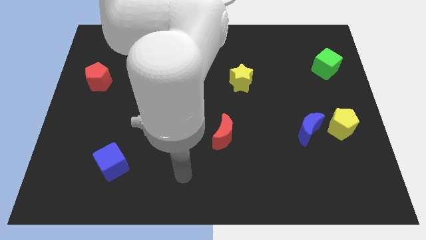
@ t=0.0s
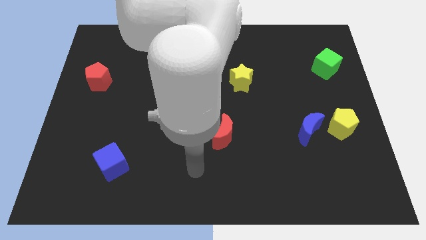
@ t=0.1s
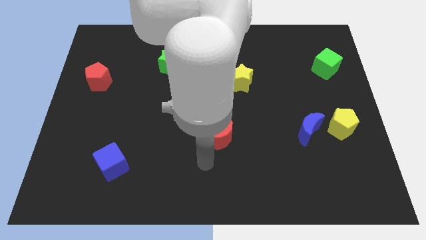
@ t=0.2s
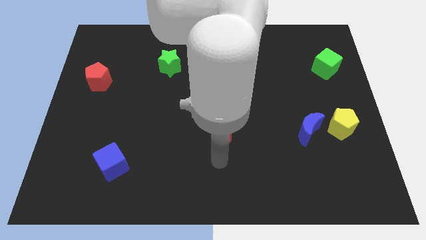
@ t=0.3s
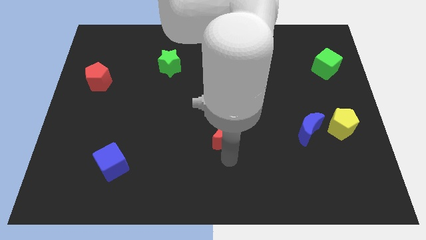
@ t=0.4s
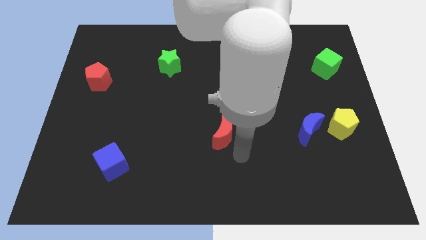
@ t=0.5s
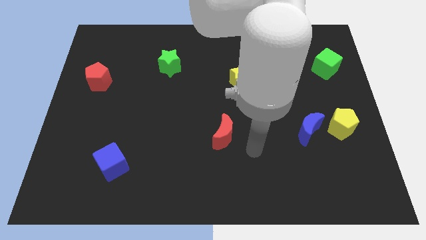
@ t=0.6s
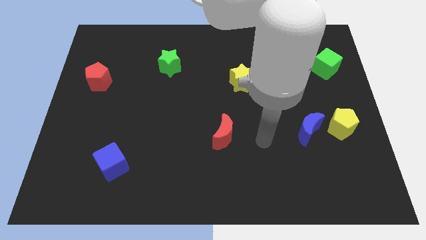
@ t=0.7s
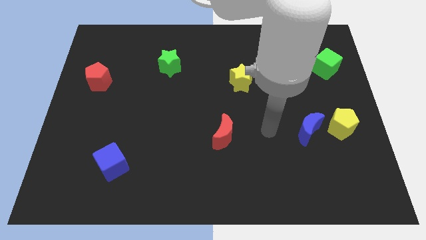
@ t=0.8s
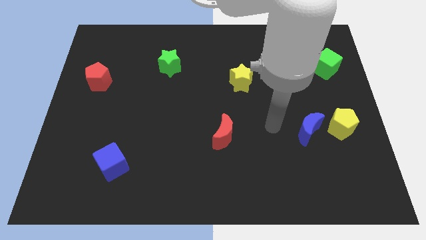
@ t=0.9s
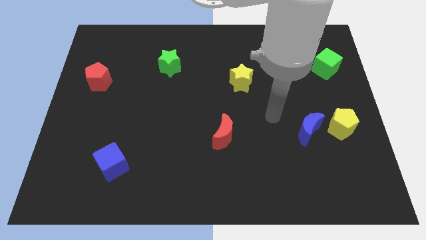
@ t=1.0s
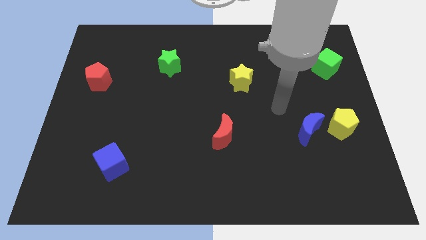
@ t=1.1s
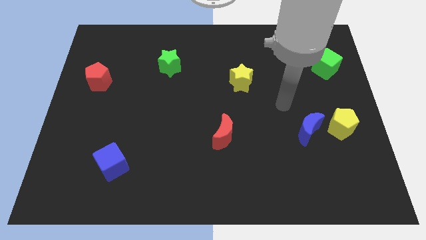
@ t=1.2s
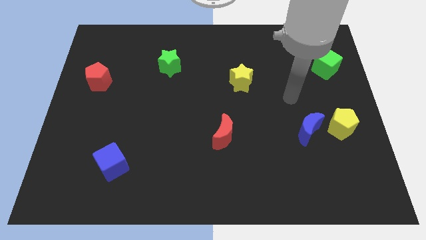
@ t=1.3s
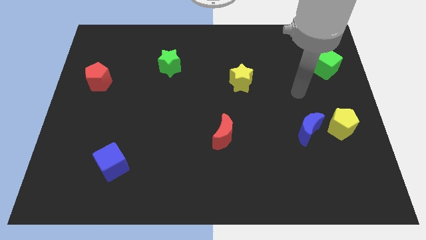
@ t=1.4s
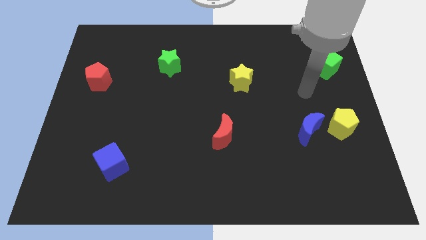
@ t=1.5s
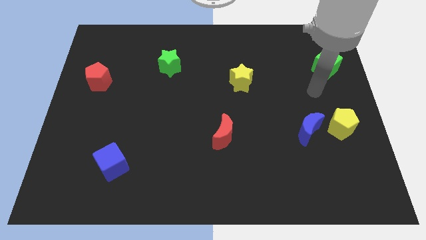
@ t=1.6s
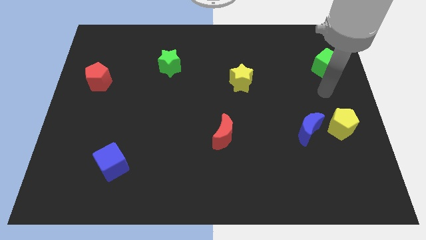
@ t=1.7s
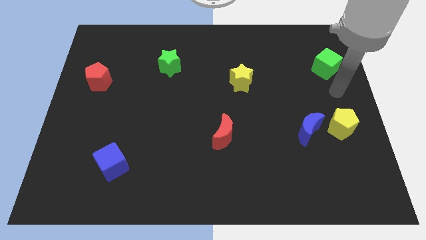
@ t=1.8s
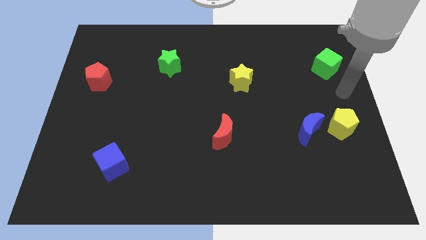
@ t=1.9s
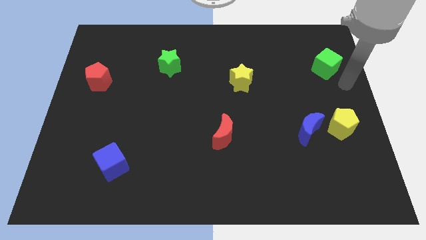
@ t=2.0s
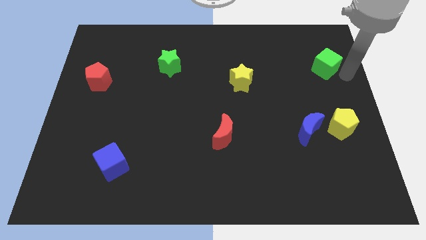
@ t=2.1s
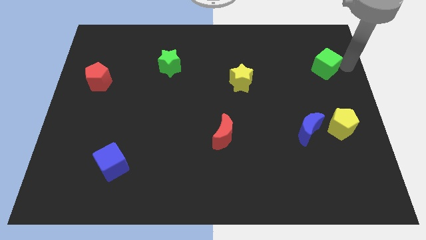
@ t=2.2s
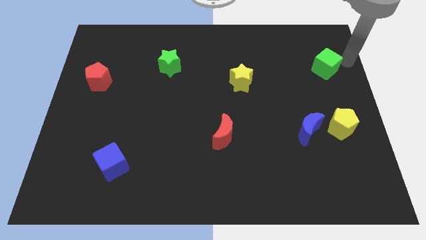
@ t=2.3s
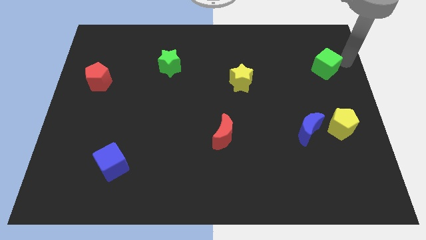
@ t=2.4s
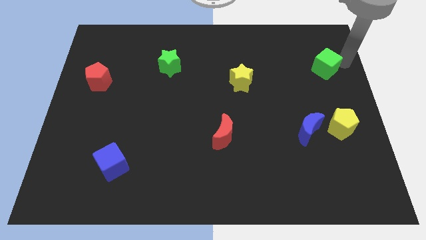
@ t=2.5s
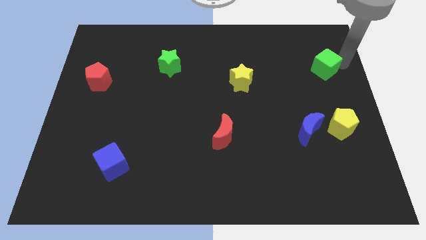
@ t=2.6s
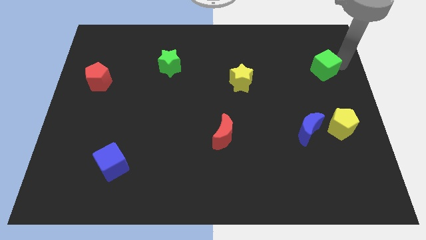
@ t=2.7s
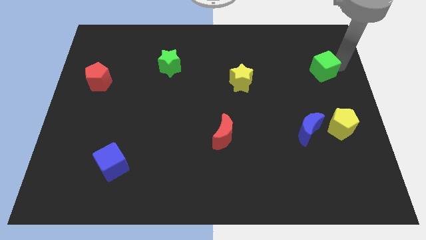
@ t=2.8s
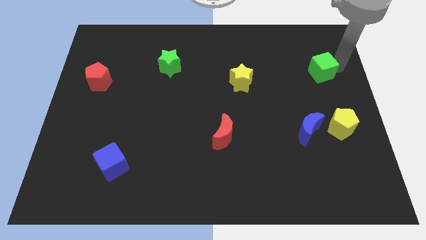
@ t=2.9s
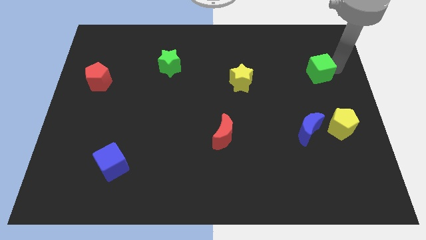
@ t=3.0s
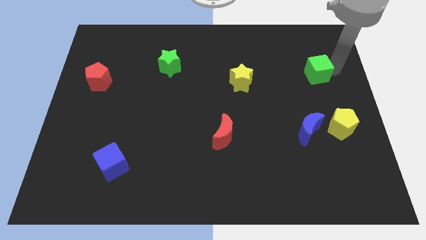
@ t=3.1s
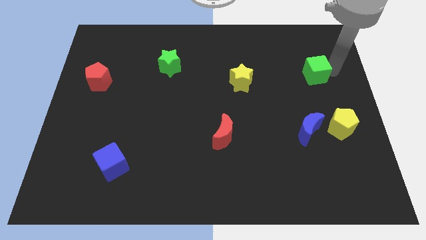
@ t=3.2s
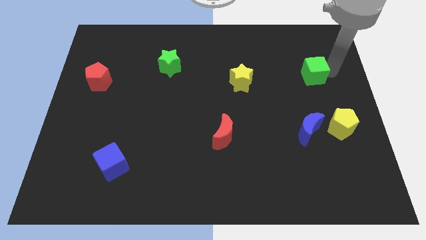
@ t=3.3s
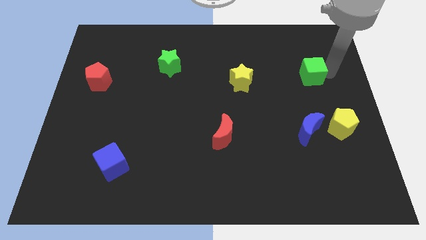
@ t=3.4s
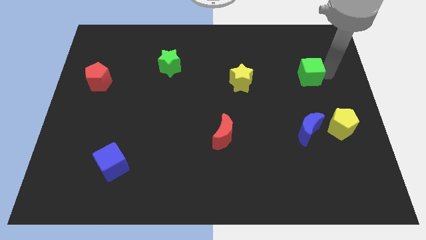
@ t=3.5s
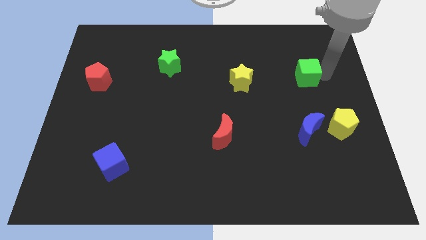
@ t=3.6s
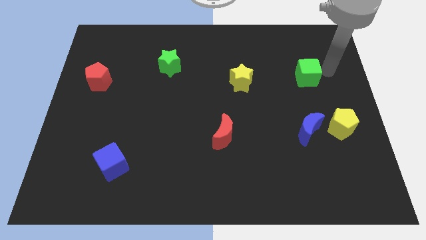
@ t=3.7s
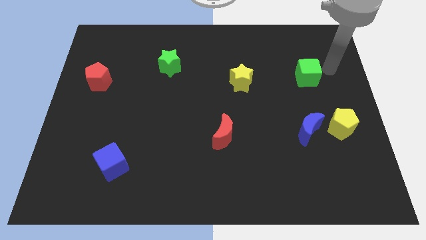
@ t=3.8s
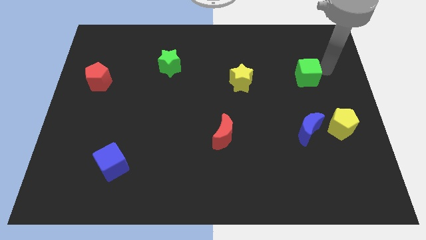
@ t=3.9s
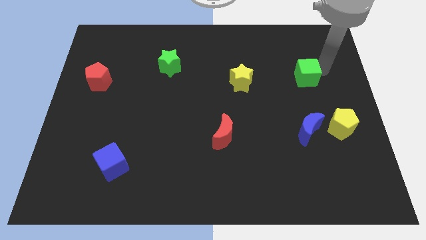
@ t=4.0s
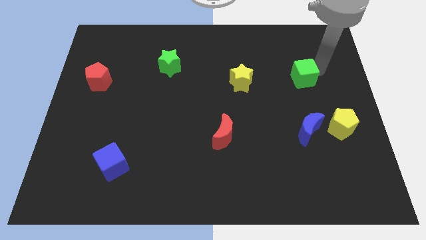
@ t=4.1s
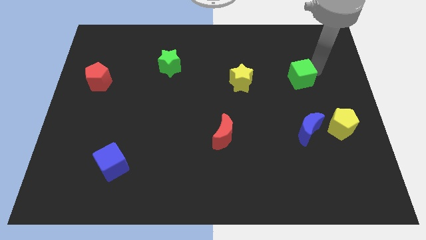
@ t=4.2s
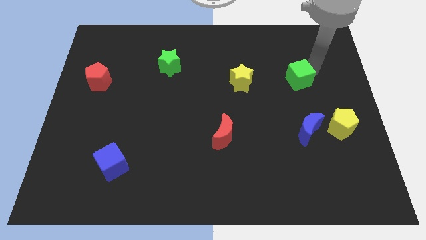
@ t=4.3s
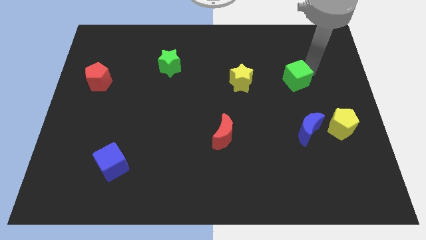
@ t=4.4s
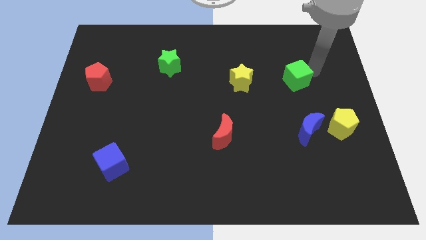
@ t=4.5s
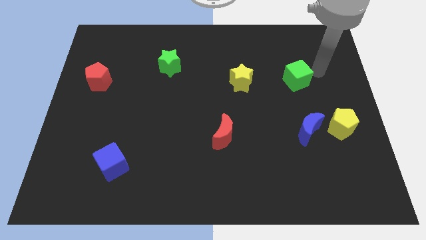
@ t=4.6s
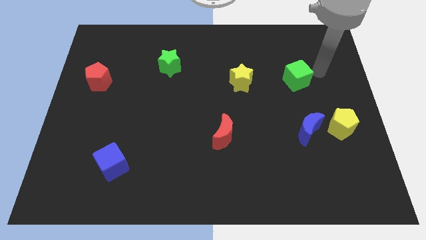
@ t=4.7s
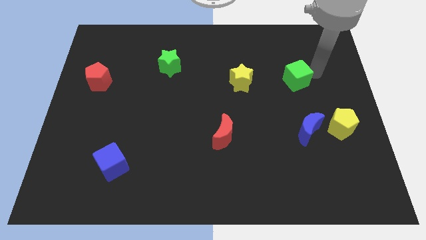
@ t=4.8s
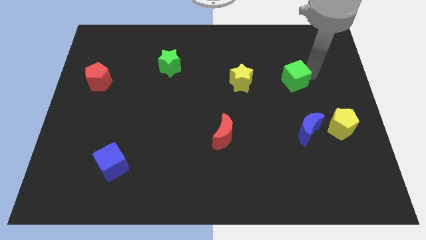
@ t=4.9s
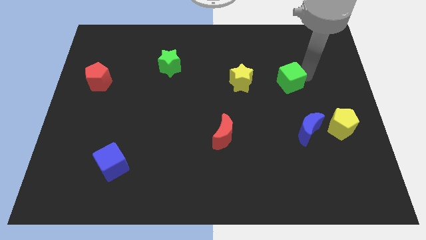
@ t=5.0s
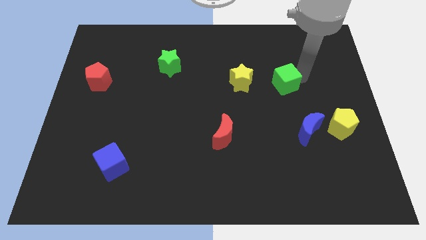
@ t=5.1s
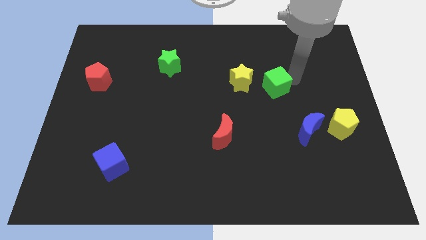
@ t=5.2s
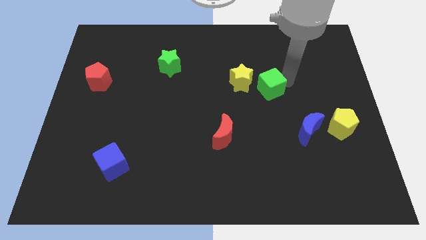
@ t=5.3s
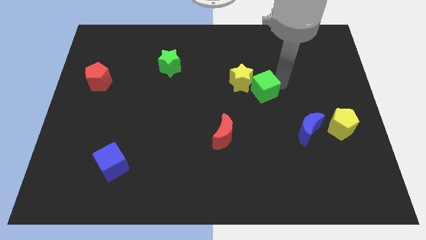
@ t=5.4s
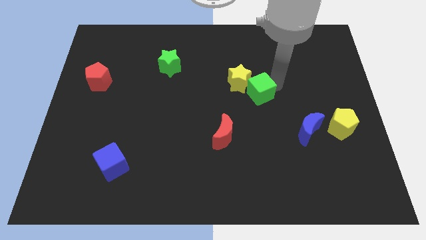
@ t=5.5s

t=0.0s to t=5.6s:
slide the green cube to the middle

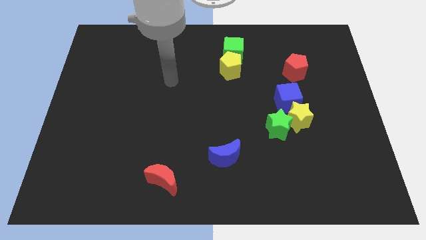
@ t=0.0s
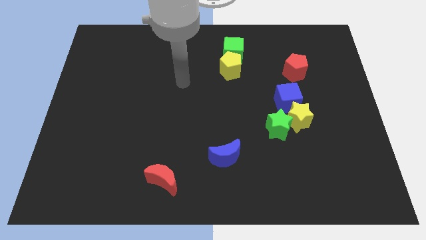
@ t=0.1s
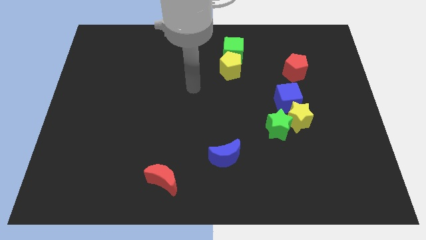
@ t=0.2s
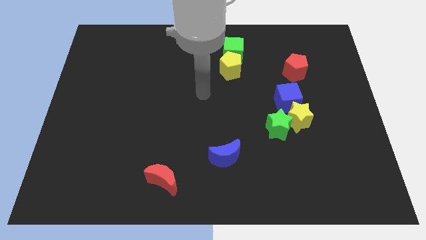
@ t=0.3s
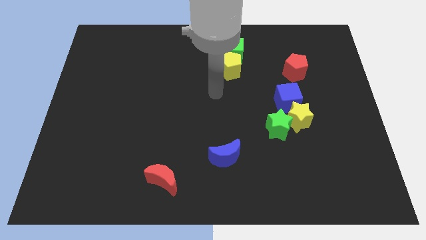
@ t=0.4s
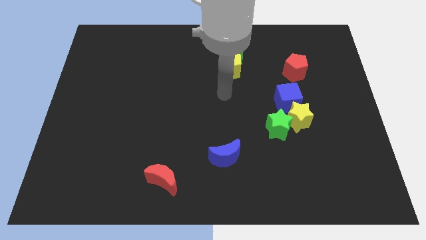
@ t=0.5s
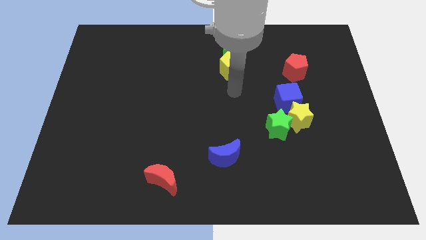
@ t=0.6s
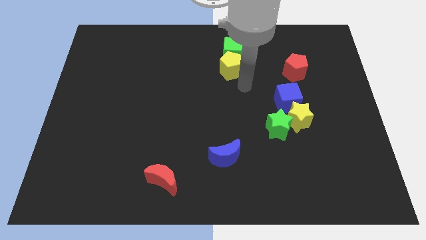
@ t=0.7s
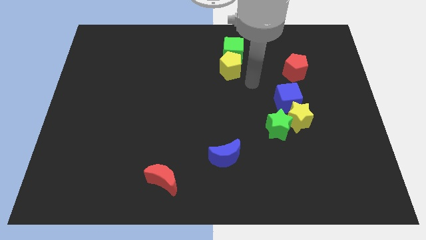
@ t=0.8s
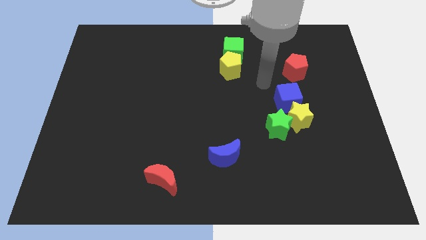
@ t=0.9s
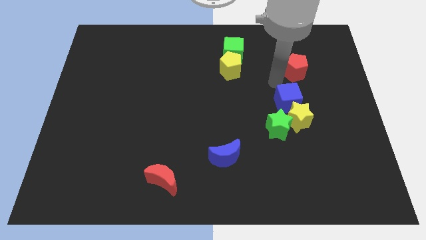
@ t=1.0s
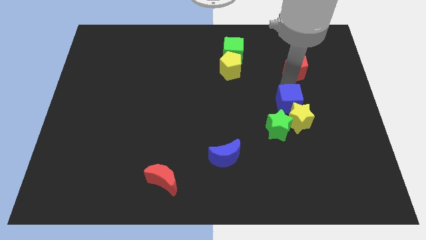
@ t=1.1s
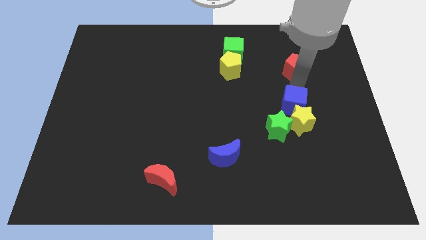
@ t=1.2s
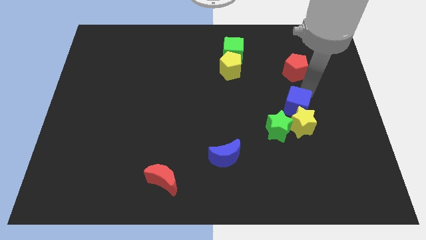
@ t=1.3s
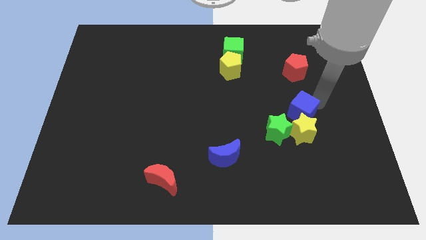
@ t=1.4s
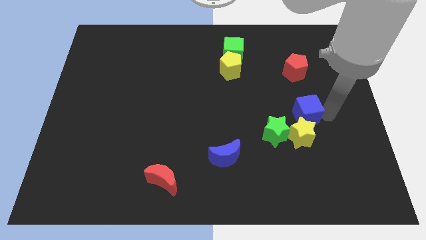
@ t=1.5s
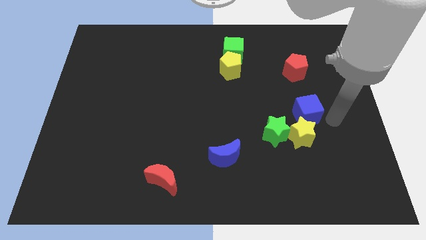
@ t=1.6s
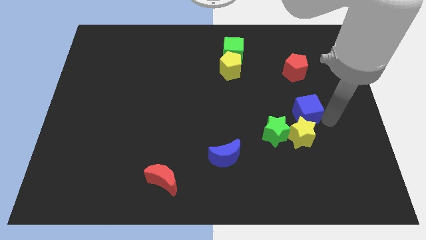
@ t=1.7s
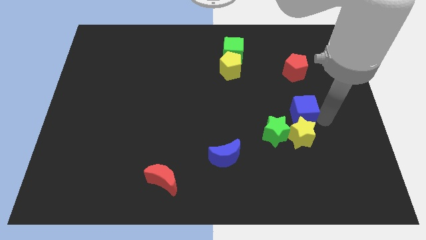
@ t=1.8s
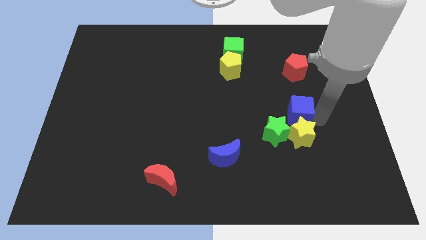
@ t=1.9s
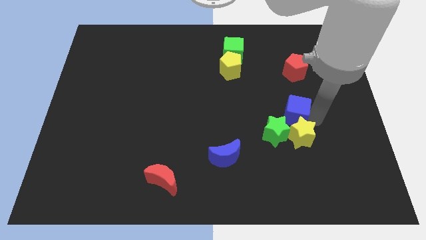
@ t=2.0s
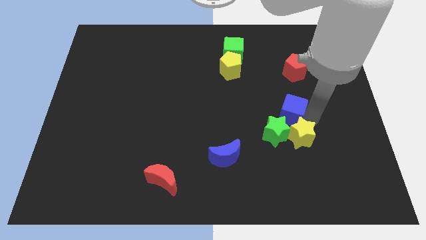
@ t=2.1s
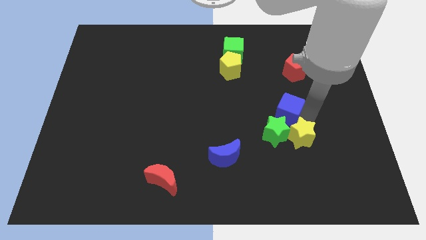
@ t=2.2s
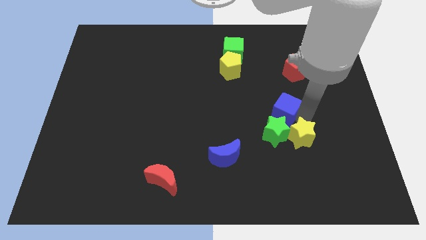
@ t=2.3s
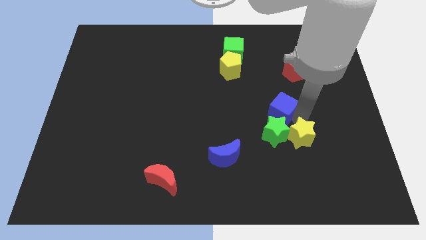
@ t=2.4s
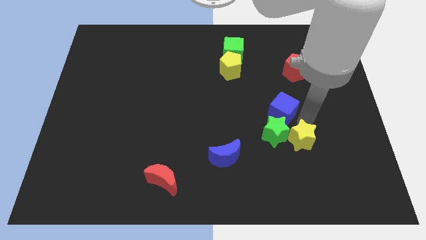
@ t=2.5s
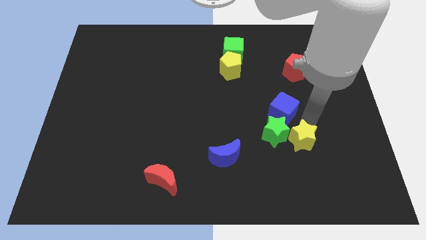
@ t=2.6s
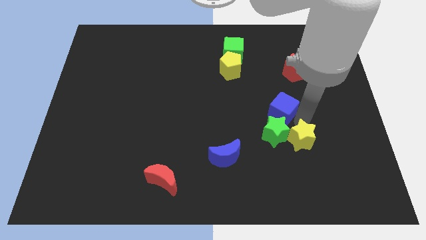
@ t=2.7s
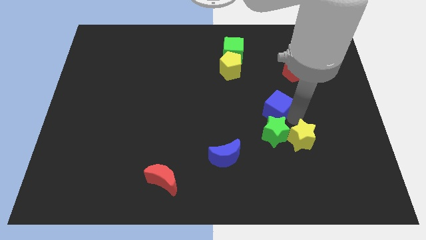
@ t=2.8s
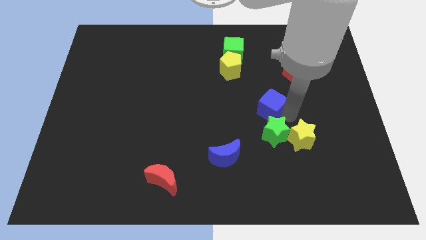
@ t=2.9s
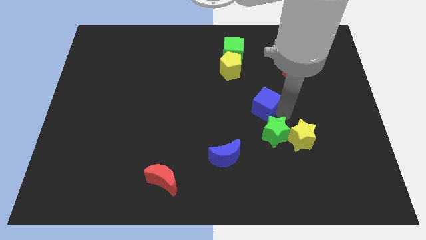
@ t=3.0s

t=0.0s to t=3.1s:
slide the blue cube to the middle of the board
